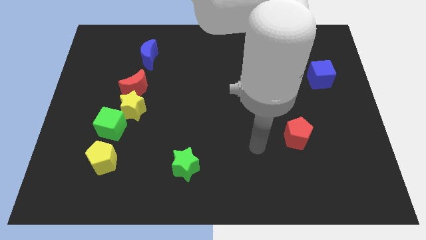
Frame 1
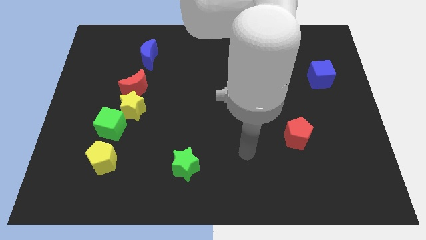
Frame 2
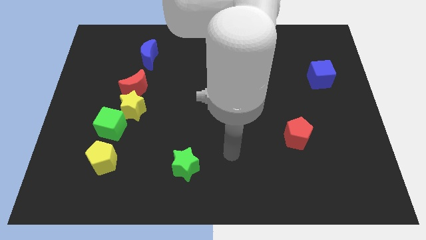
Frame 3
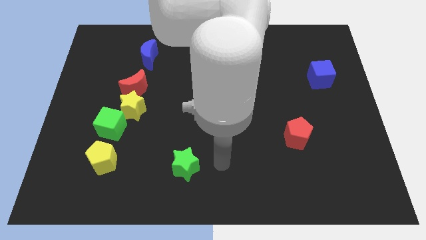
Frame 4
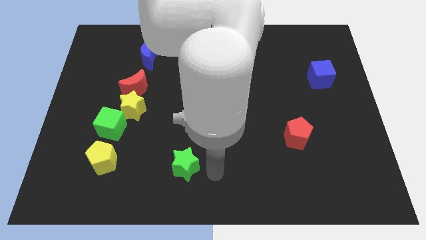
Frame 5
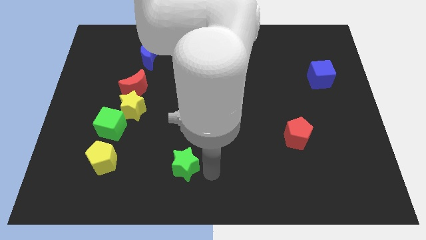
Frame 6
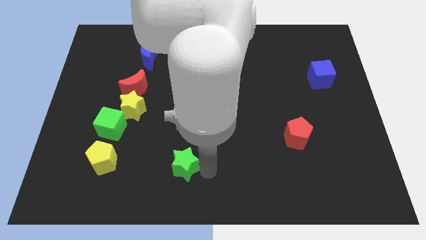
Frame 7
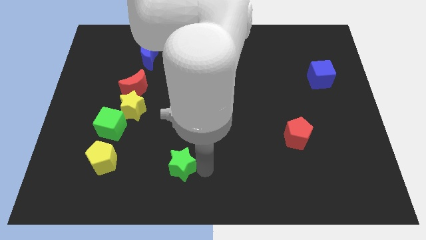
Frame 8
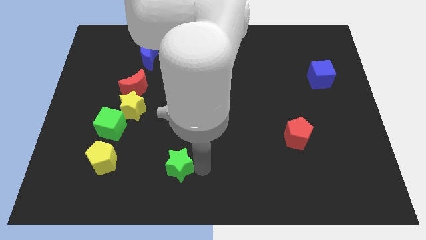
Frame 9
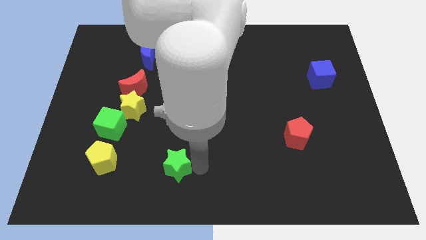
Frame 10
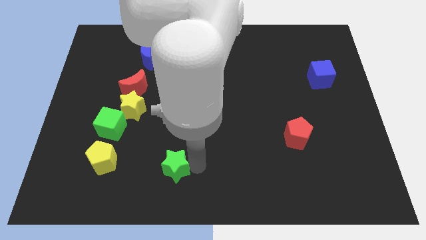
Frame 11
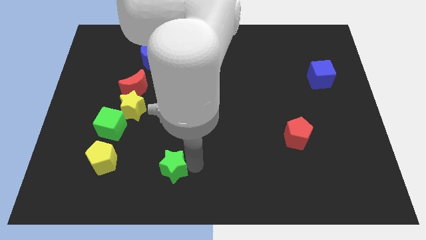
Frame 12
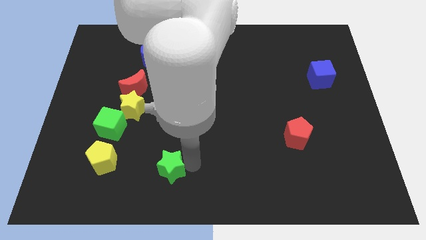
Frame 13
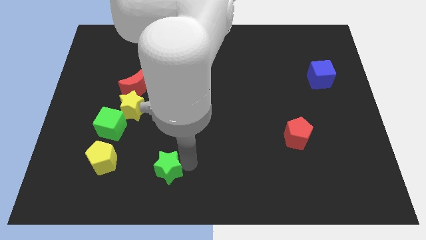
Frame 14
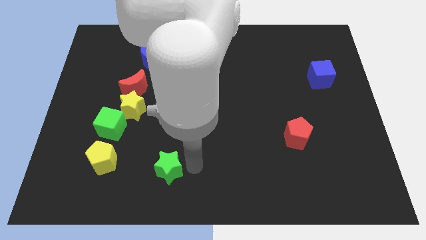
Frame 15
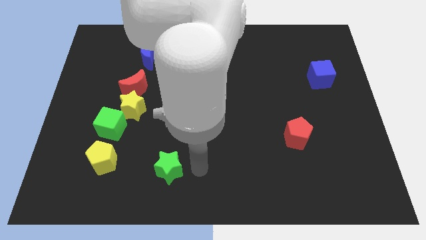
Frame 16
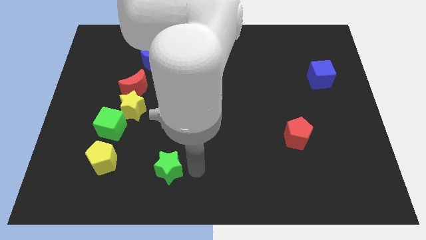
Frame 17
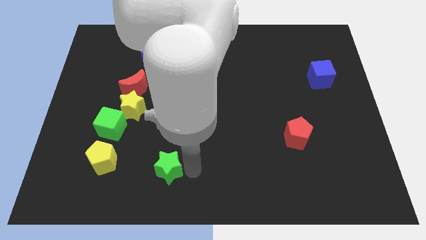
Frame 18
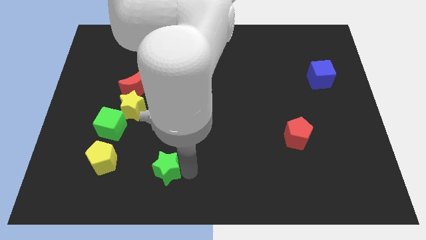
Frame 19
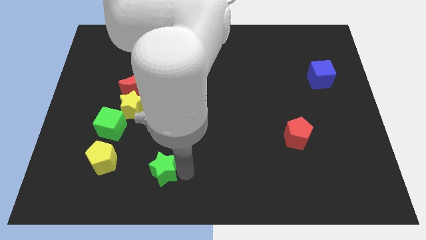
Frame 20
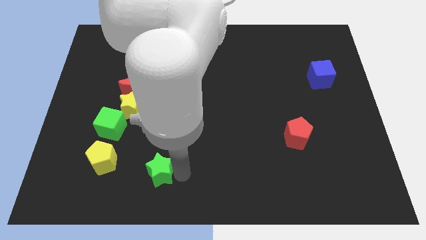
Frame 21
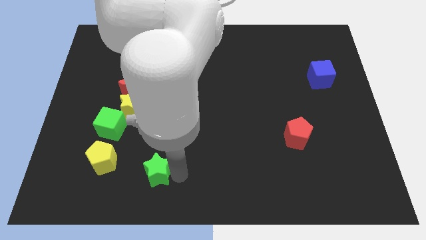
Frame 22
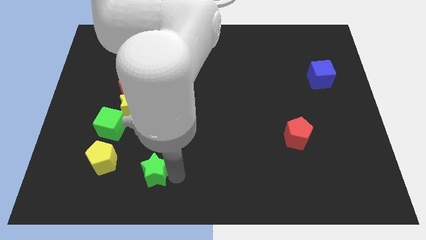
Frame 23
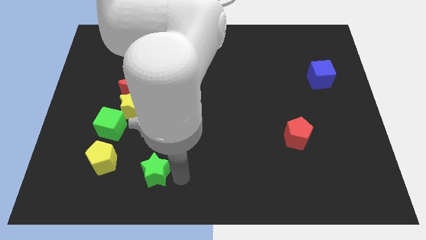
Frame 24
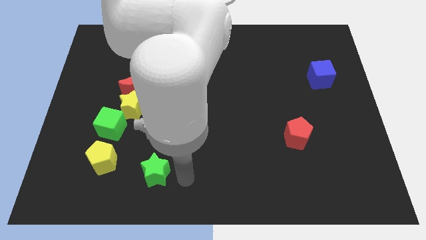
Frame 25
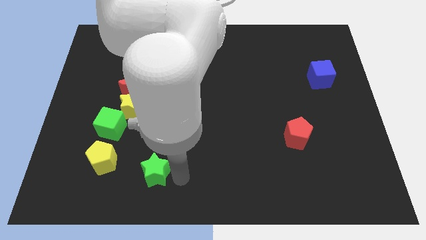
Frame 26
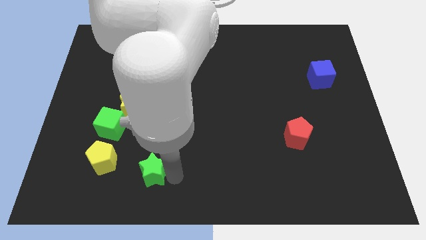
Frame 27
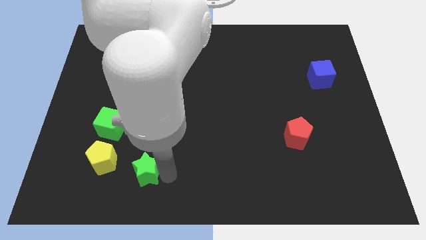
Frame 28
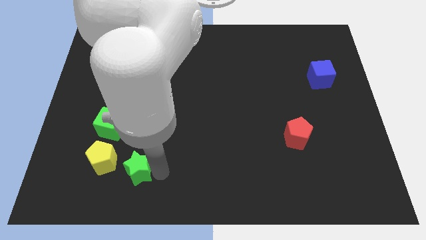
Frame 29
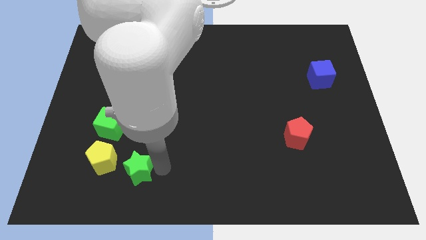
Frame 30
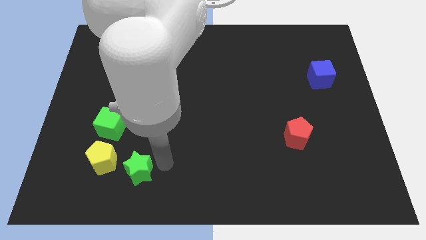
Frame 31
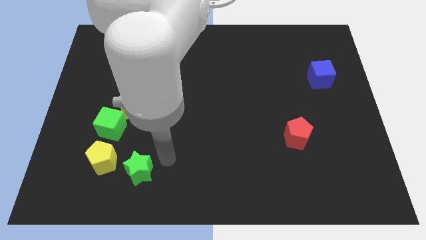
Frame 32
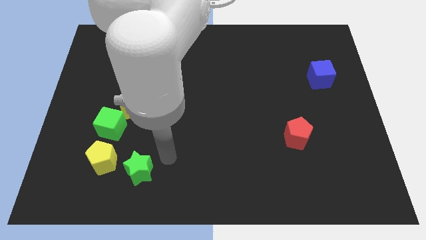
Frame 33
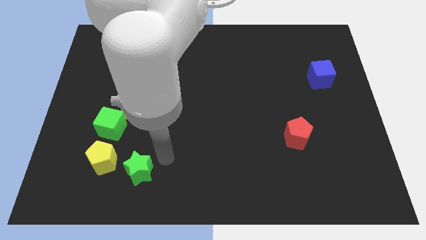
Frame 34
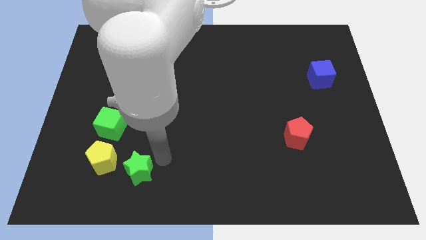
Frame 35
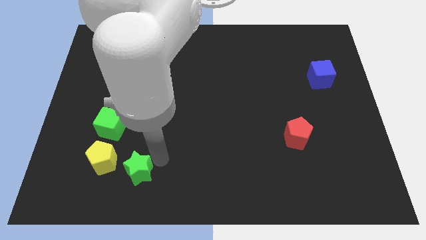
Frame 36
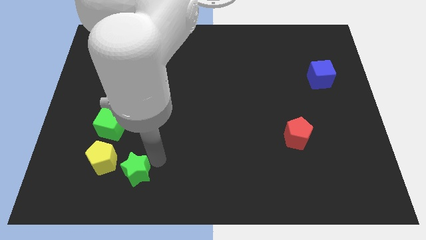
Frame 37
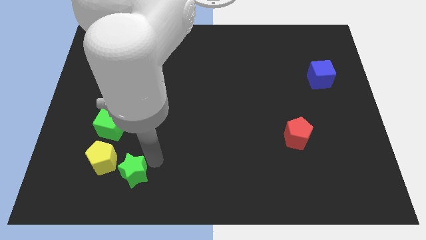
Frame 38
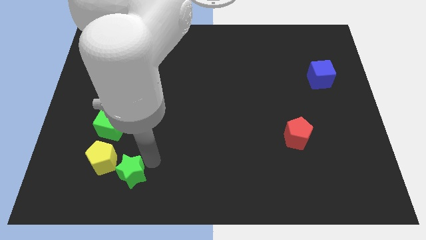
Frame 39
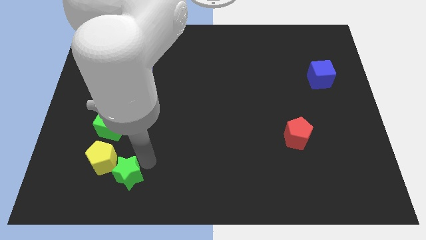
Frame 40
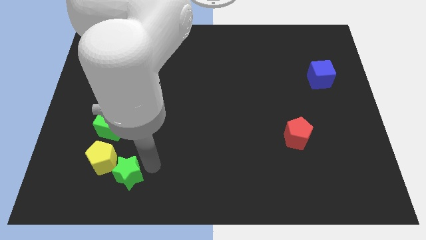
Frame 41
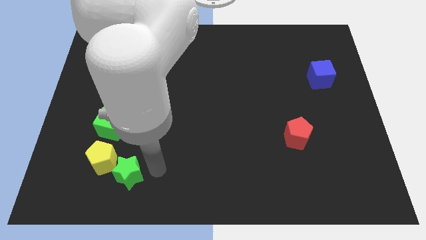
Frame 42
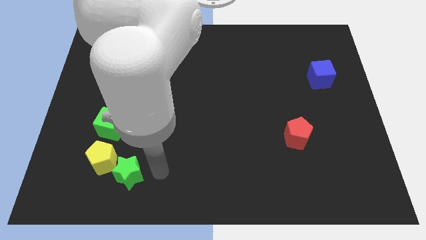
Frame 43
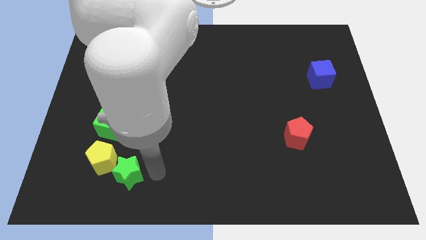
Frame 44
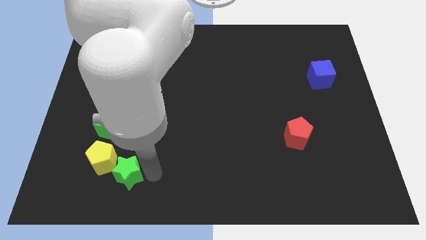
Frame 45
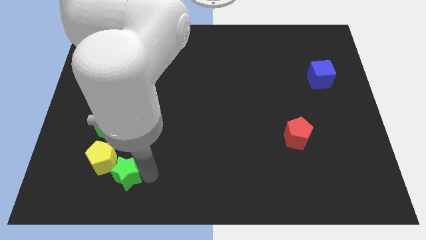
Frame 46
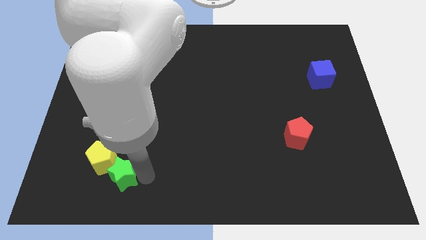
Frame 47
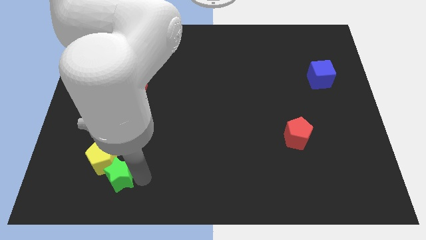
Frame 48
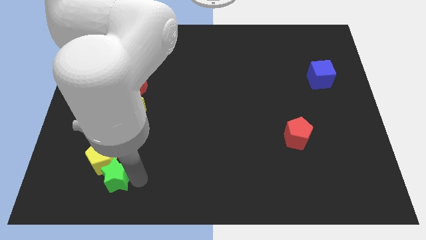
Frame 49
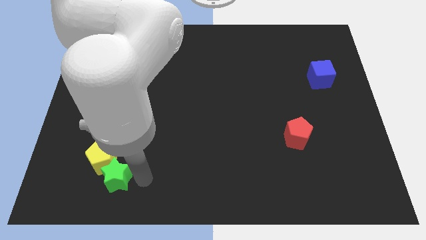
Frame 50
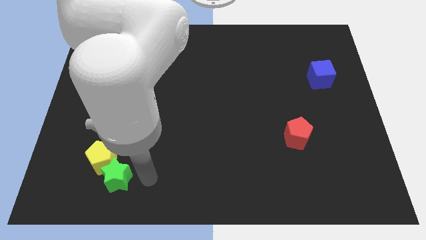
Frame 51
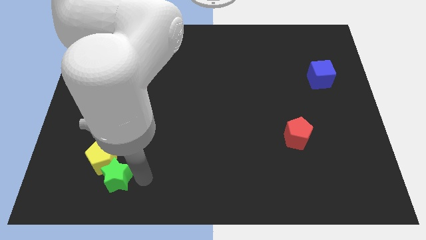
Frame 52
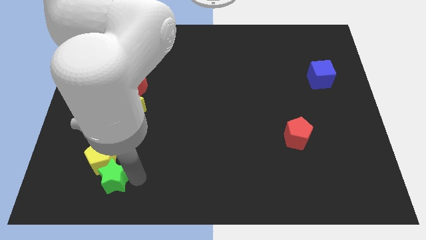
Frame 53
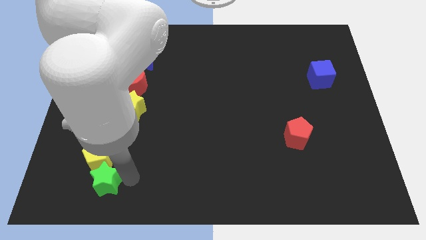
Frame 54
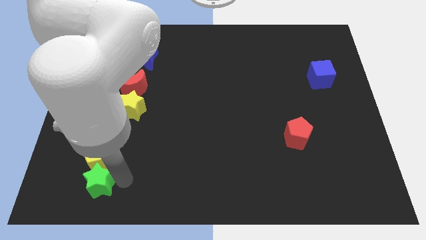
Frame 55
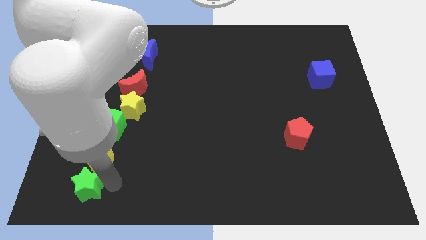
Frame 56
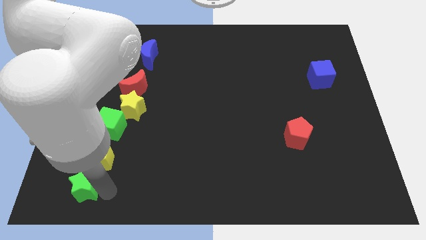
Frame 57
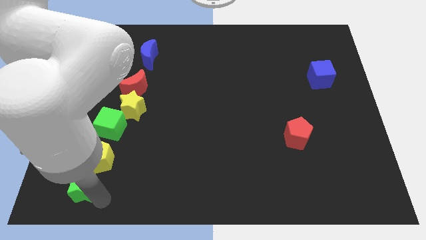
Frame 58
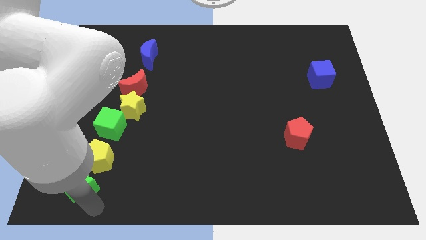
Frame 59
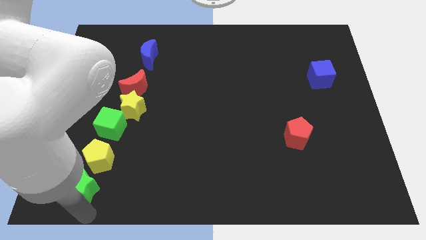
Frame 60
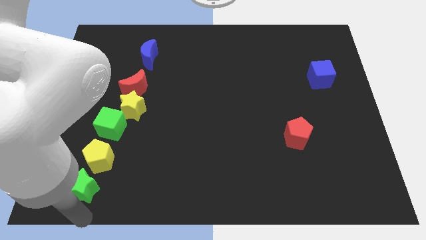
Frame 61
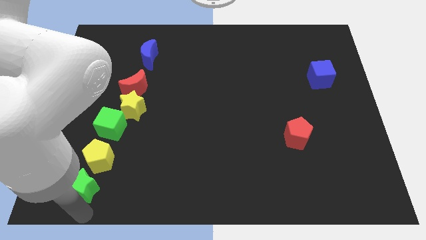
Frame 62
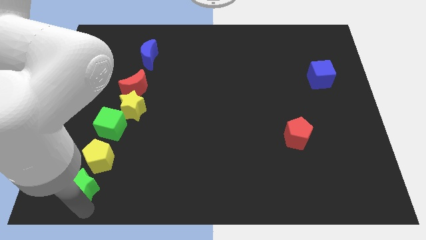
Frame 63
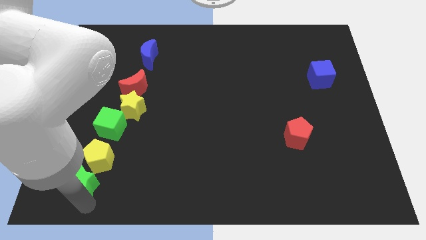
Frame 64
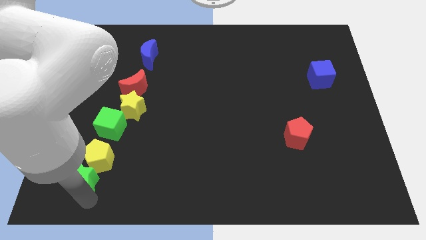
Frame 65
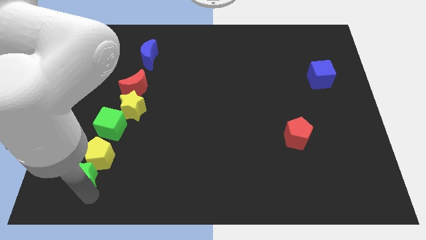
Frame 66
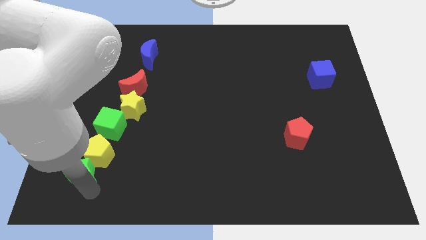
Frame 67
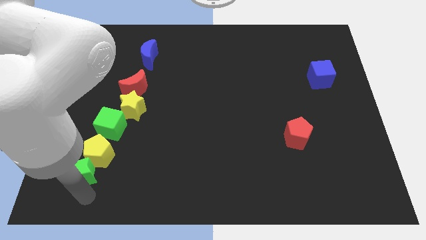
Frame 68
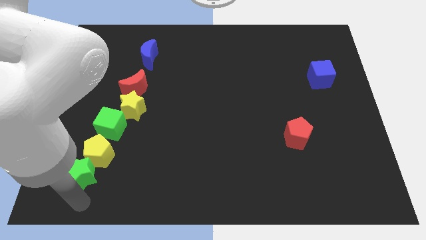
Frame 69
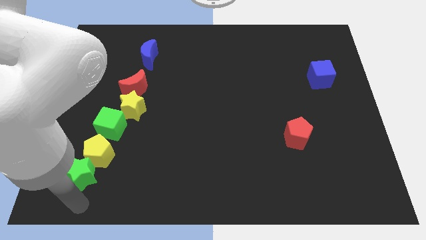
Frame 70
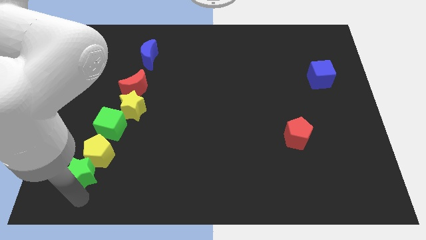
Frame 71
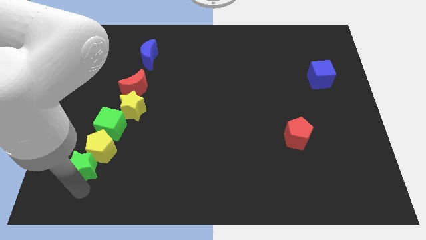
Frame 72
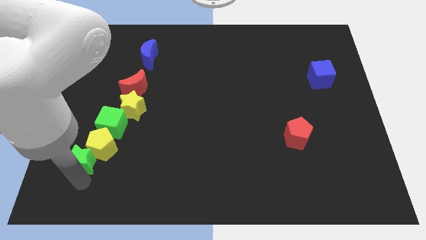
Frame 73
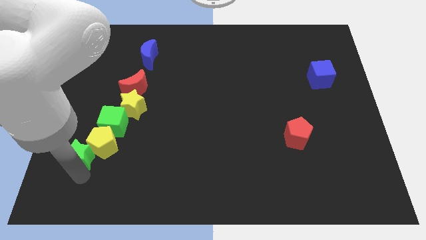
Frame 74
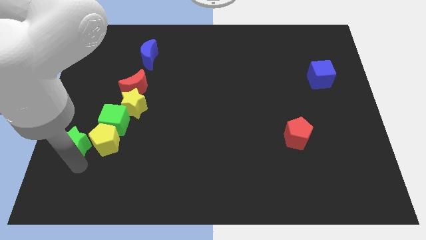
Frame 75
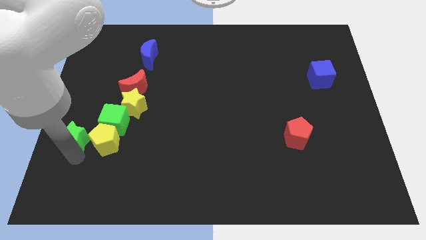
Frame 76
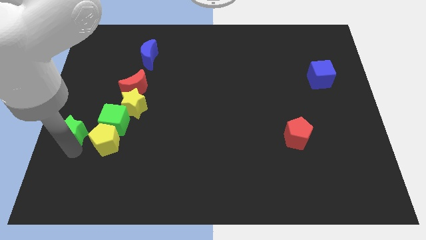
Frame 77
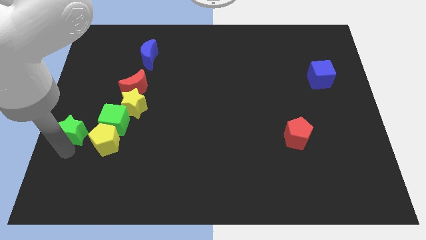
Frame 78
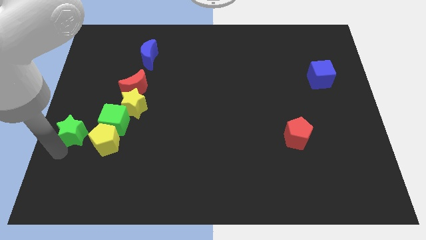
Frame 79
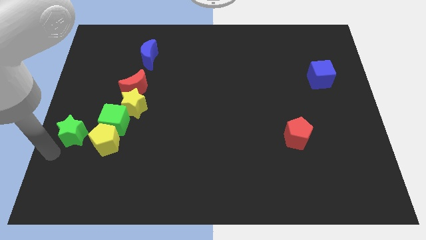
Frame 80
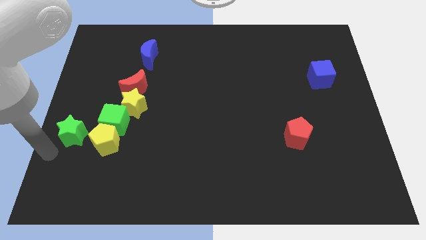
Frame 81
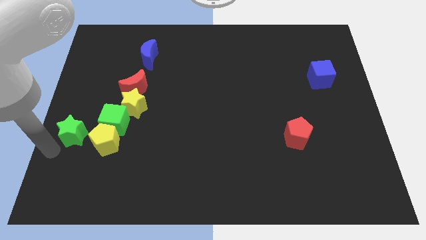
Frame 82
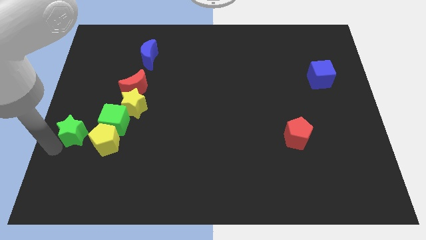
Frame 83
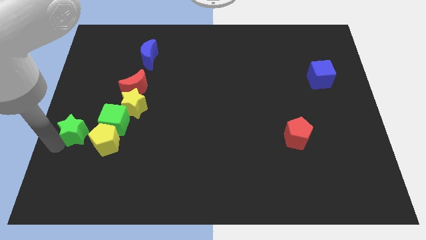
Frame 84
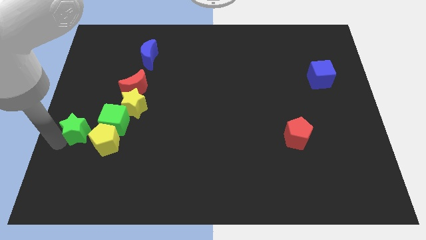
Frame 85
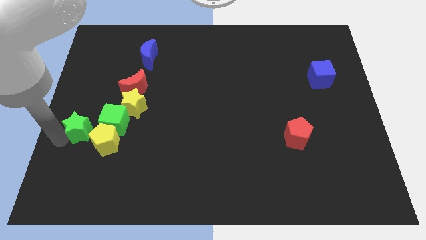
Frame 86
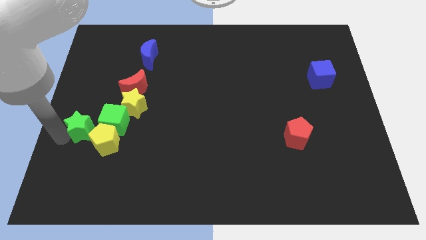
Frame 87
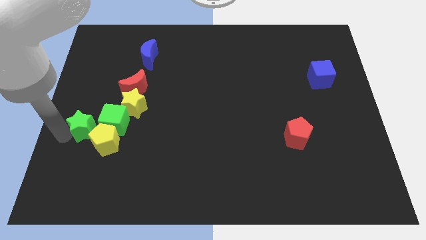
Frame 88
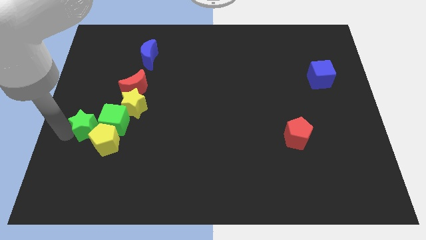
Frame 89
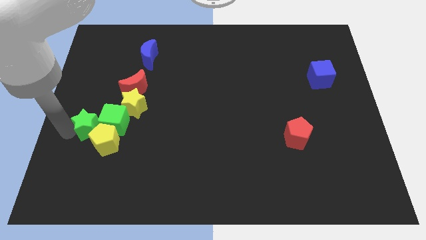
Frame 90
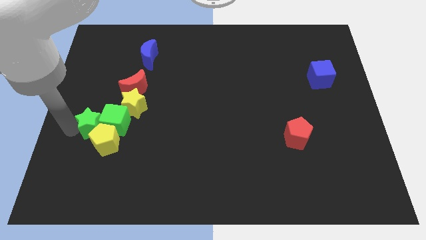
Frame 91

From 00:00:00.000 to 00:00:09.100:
push the green star upwards and left diagonally
